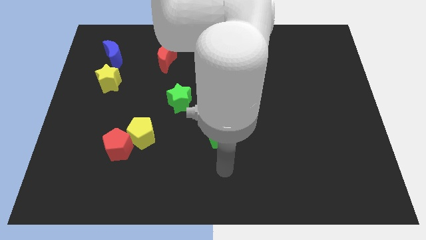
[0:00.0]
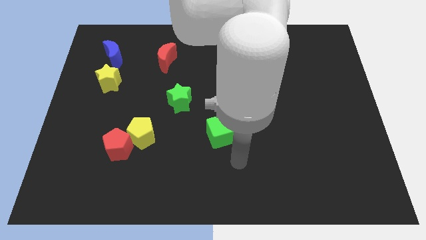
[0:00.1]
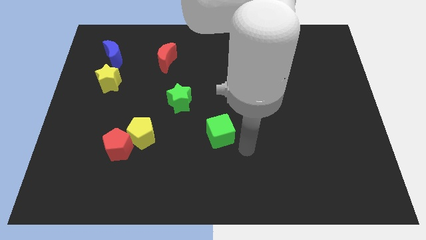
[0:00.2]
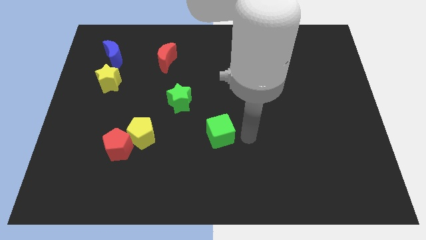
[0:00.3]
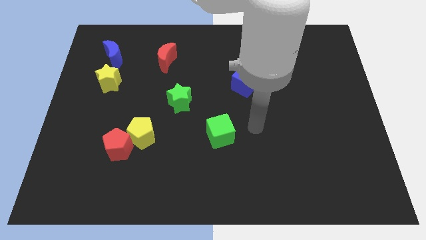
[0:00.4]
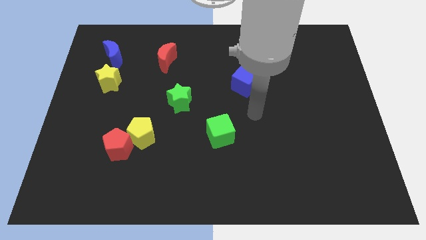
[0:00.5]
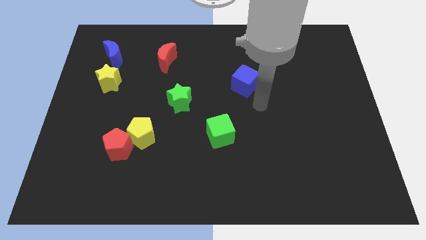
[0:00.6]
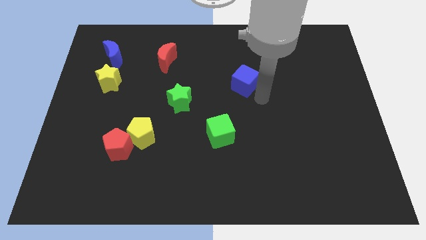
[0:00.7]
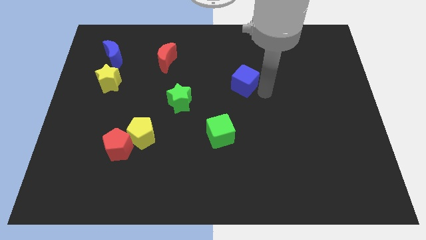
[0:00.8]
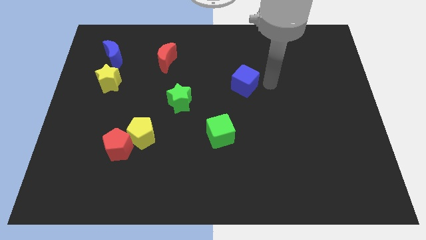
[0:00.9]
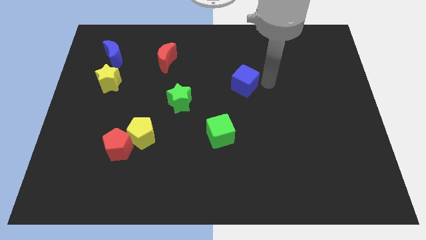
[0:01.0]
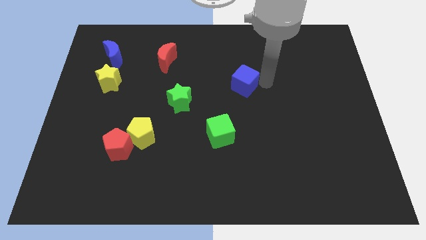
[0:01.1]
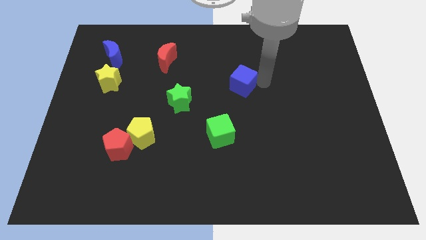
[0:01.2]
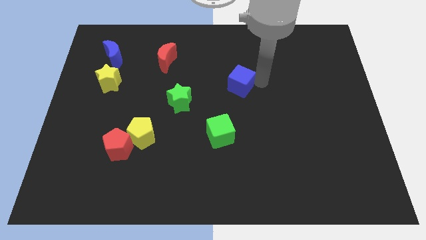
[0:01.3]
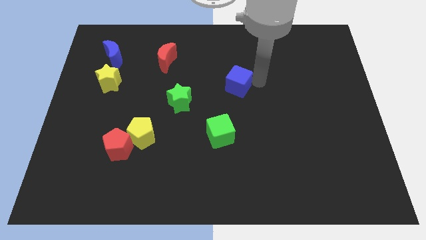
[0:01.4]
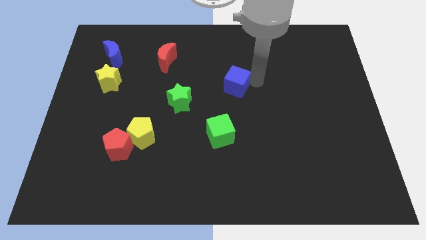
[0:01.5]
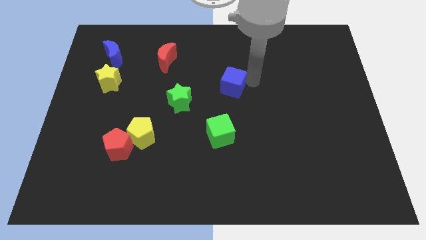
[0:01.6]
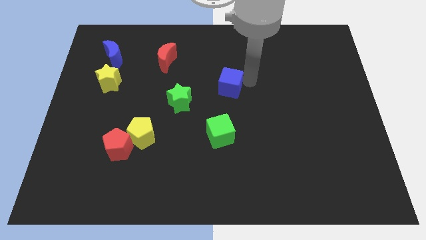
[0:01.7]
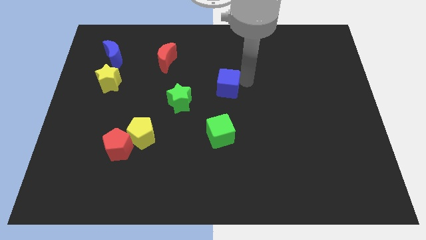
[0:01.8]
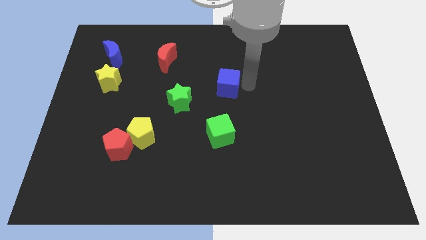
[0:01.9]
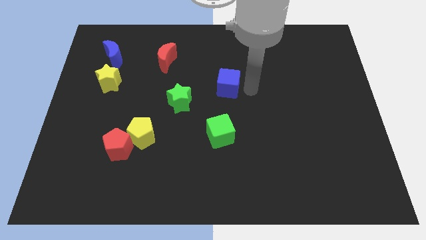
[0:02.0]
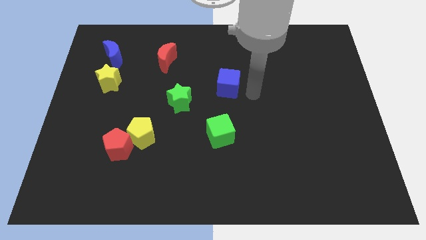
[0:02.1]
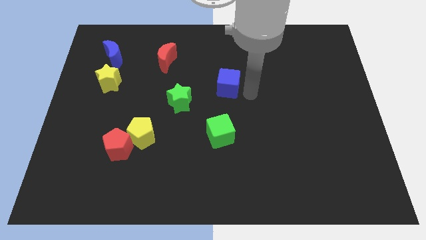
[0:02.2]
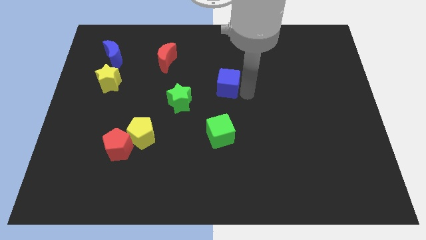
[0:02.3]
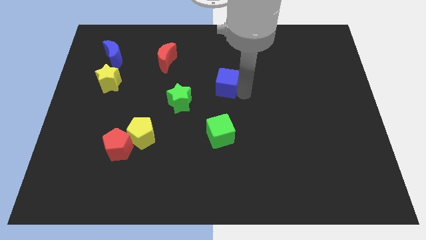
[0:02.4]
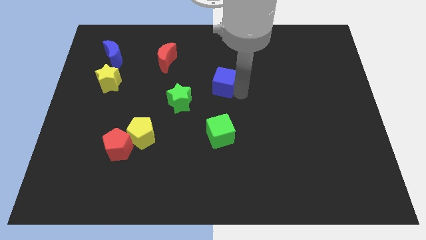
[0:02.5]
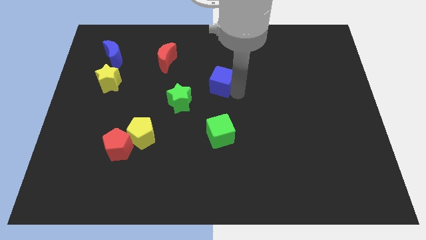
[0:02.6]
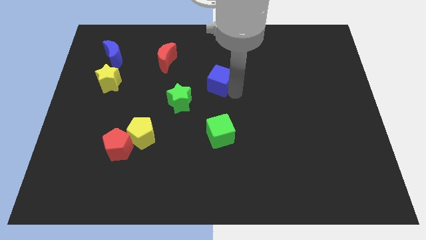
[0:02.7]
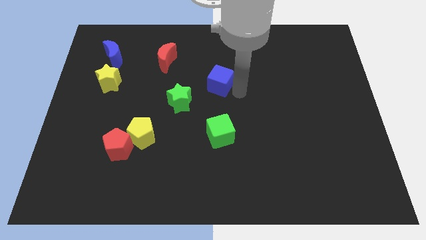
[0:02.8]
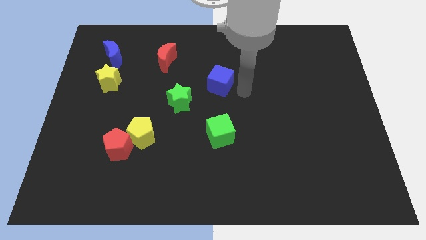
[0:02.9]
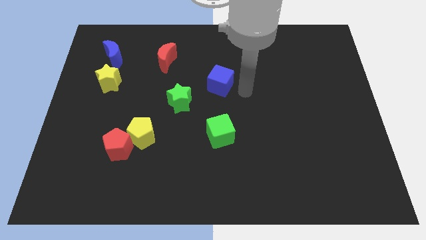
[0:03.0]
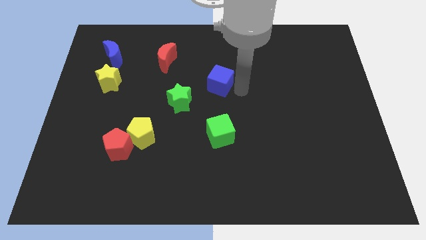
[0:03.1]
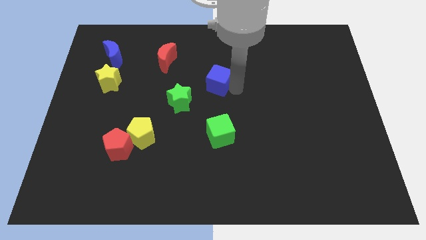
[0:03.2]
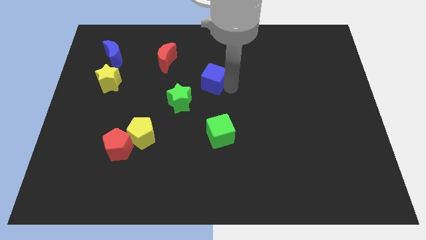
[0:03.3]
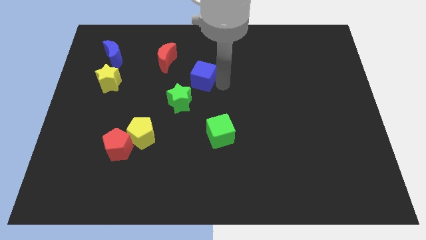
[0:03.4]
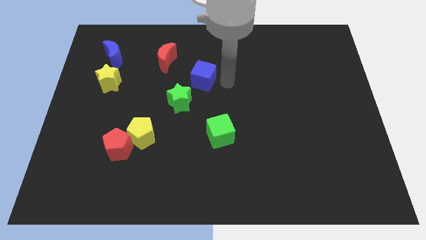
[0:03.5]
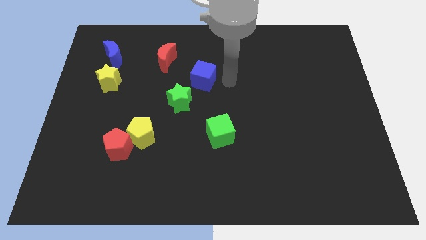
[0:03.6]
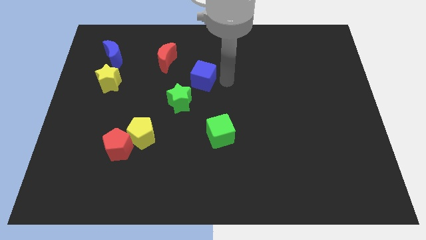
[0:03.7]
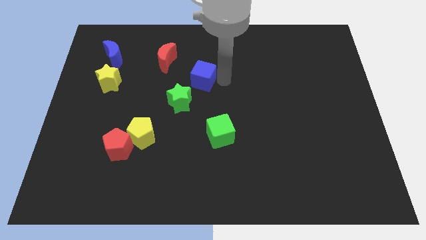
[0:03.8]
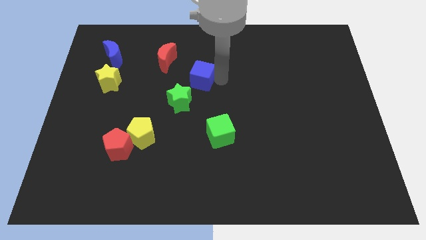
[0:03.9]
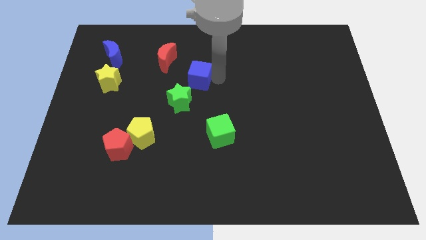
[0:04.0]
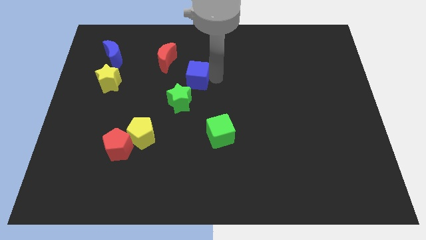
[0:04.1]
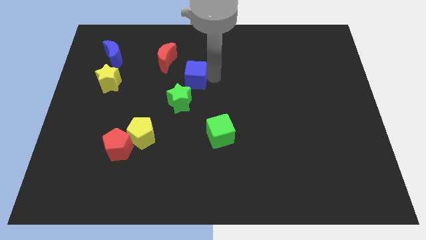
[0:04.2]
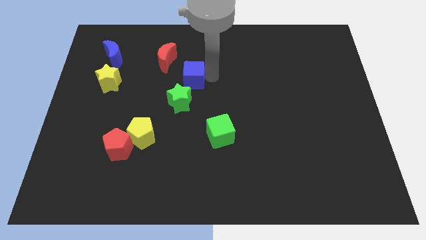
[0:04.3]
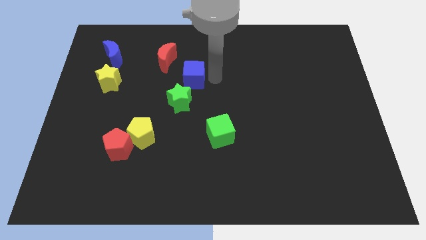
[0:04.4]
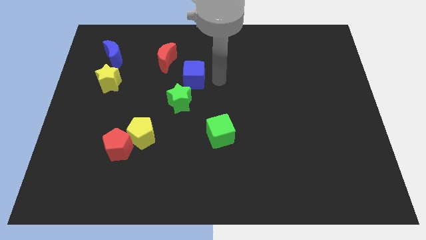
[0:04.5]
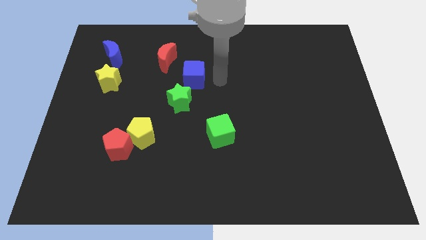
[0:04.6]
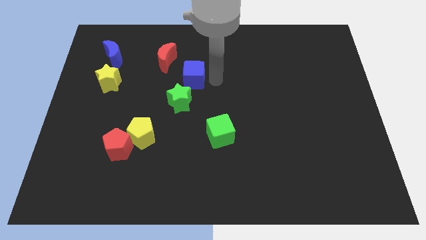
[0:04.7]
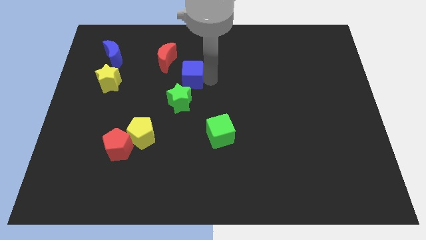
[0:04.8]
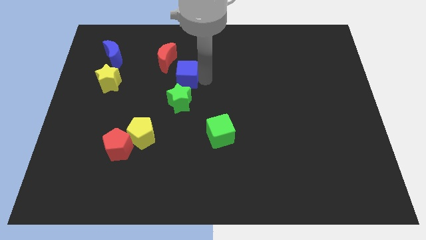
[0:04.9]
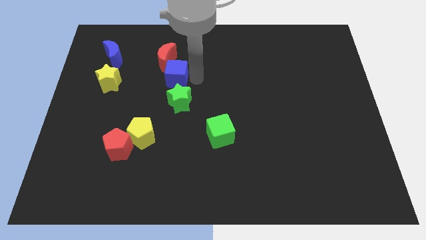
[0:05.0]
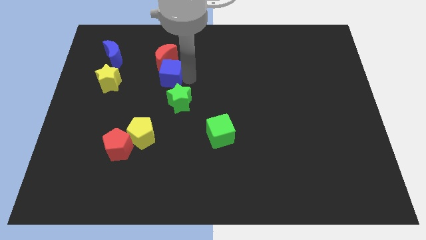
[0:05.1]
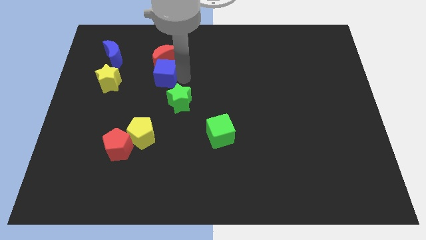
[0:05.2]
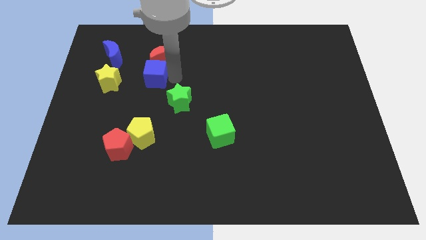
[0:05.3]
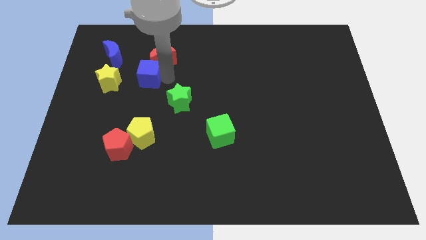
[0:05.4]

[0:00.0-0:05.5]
push the blue cube to the bottom right of the blue moon

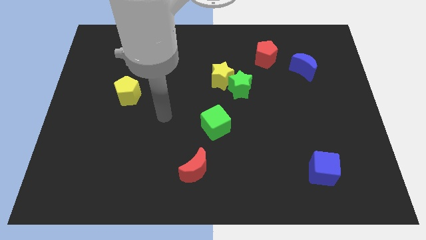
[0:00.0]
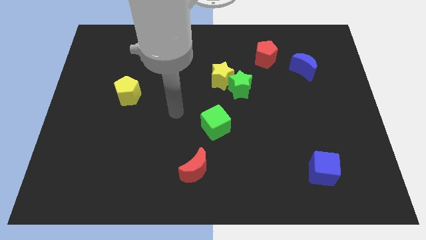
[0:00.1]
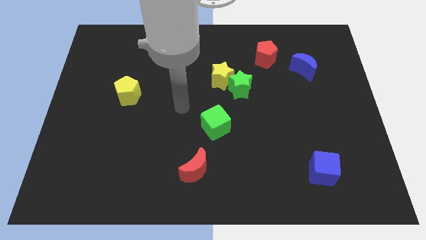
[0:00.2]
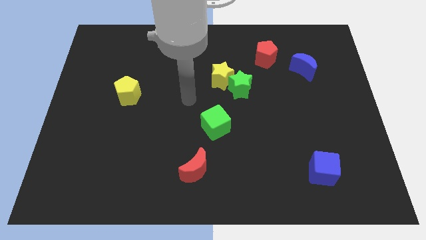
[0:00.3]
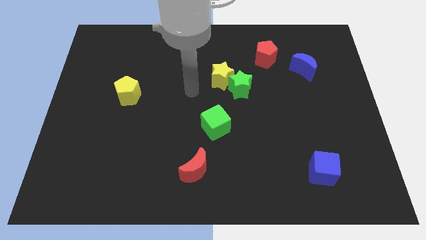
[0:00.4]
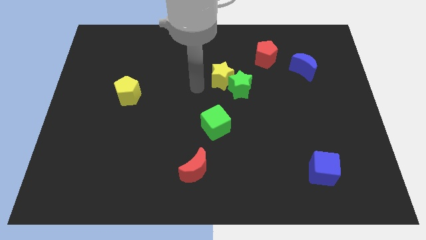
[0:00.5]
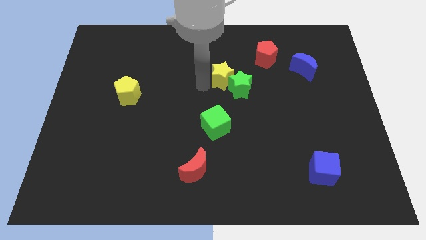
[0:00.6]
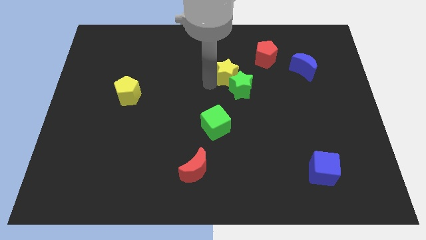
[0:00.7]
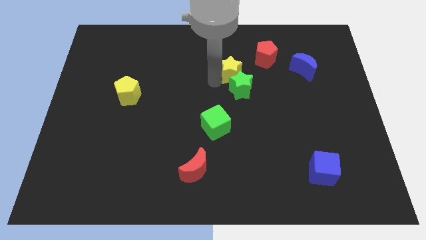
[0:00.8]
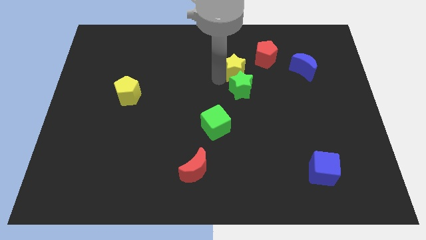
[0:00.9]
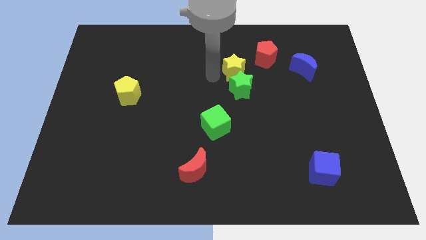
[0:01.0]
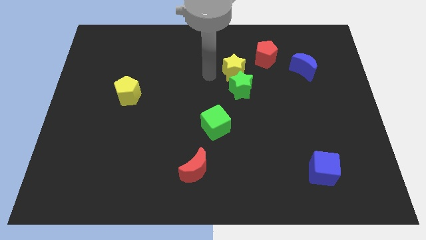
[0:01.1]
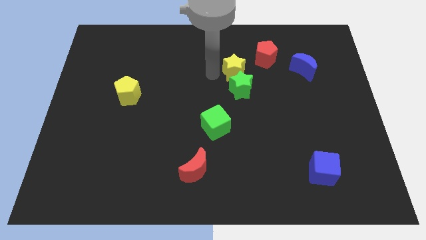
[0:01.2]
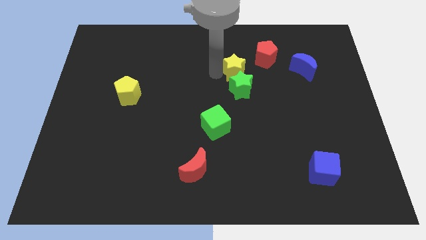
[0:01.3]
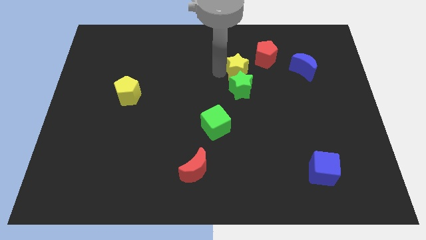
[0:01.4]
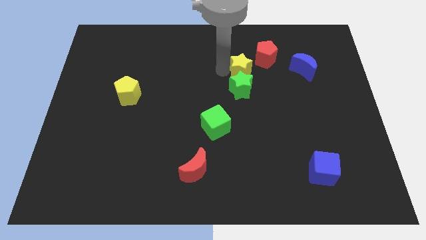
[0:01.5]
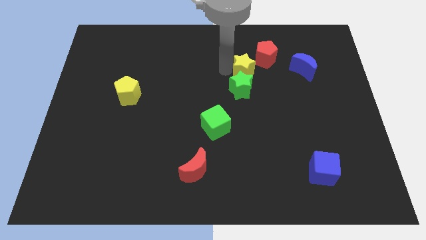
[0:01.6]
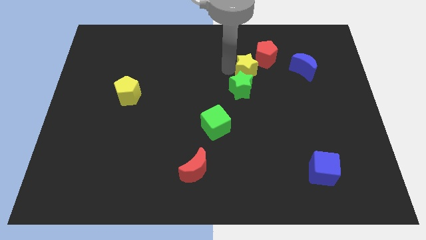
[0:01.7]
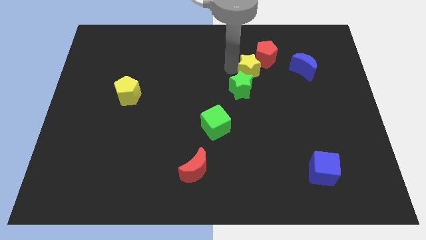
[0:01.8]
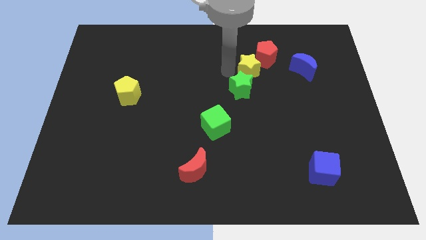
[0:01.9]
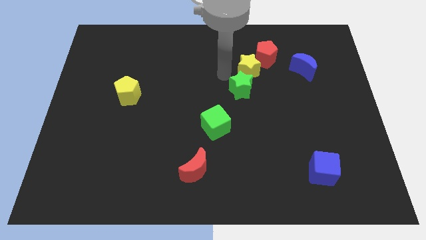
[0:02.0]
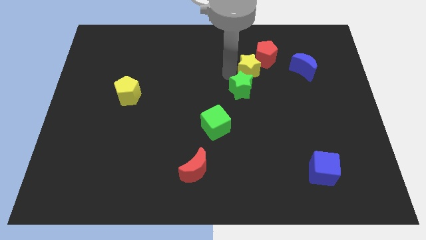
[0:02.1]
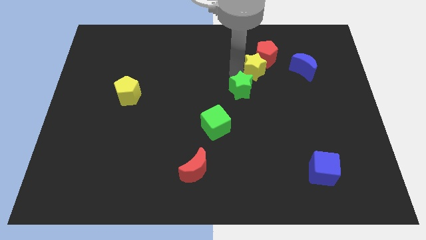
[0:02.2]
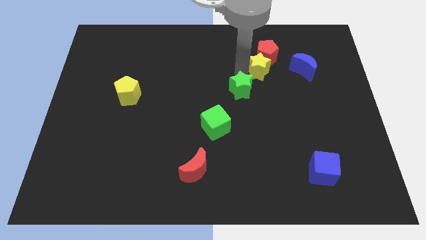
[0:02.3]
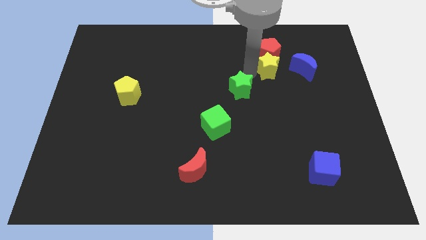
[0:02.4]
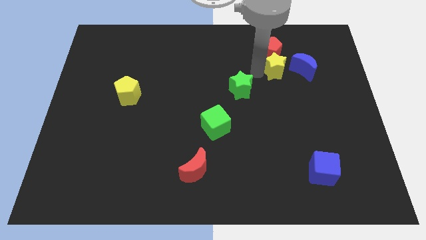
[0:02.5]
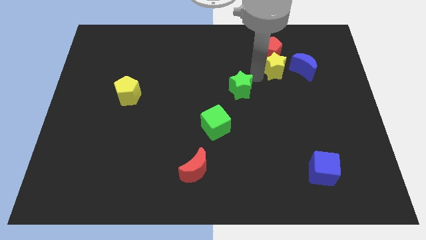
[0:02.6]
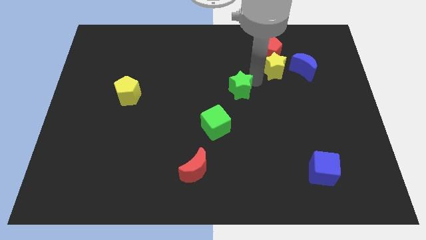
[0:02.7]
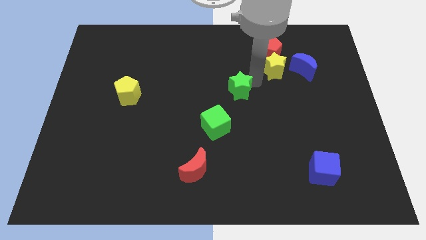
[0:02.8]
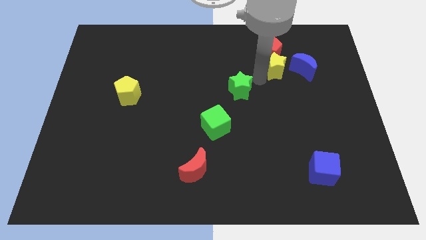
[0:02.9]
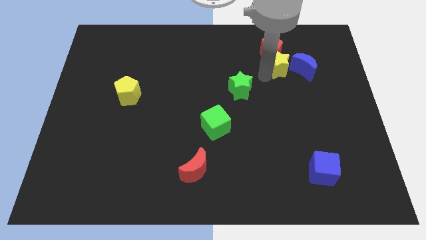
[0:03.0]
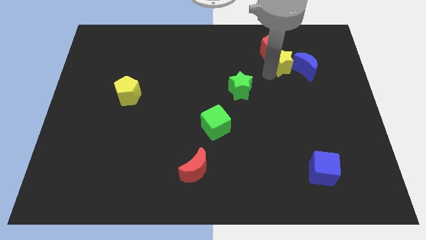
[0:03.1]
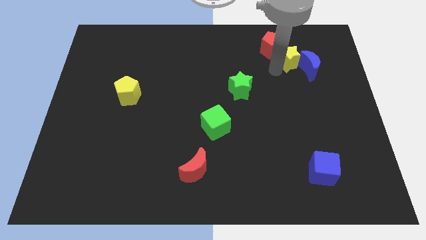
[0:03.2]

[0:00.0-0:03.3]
put the yellow star to the right of the red pentagon
